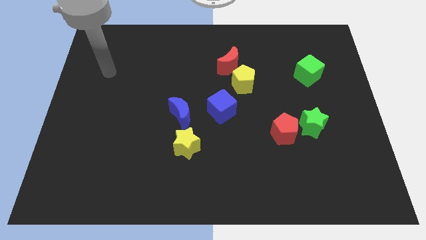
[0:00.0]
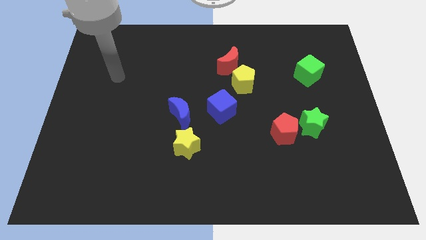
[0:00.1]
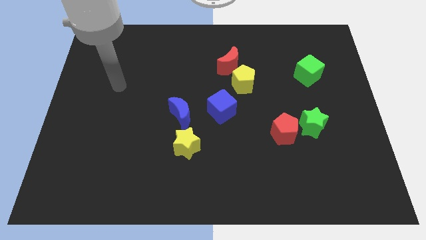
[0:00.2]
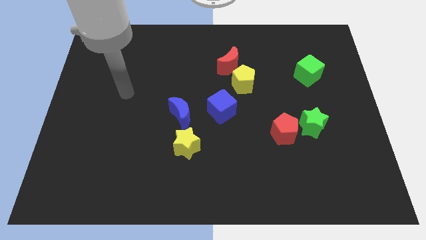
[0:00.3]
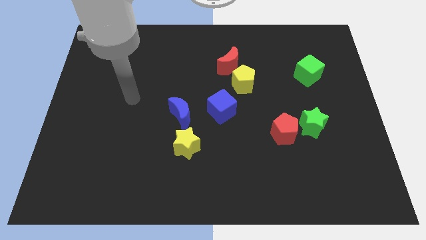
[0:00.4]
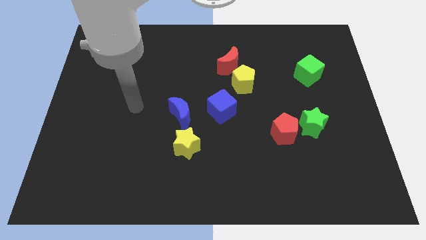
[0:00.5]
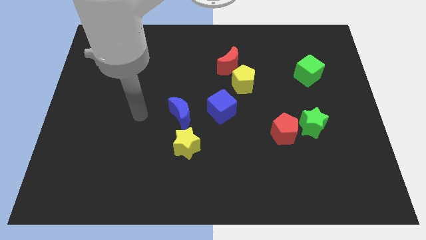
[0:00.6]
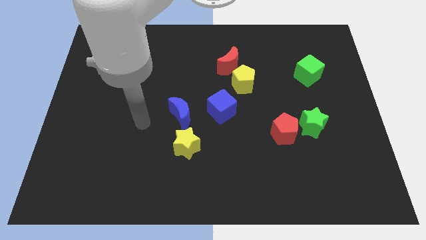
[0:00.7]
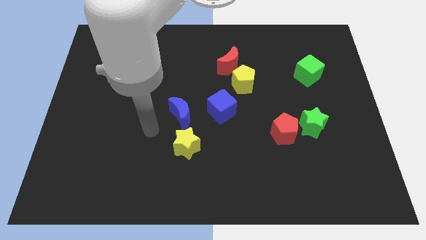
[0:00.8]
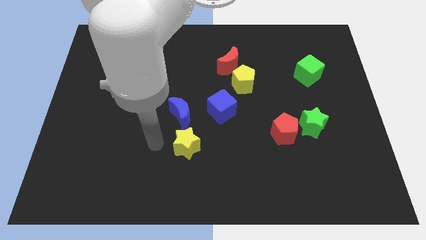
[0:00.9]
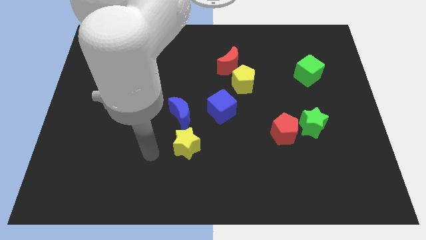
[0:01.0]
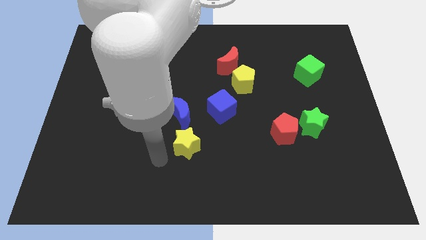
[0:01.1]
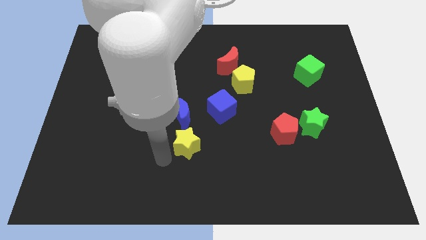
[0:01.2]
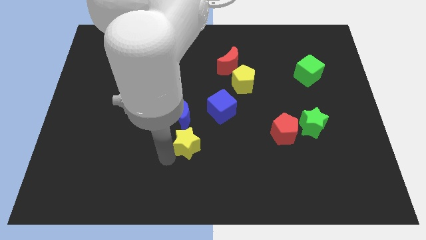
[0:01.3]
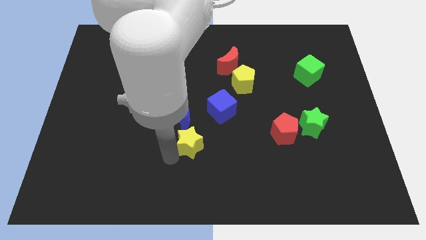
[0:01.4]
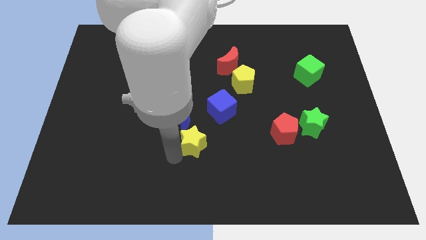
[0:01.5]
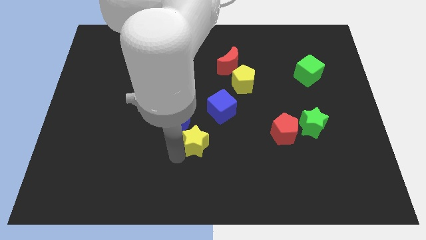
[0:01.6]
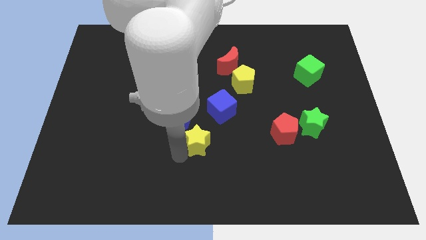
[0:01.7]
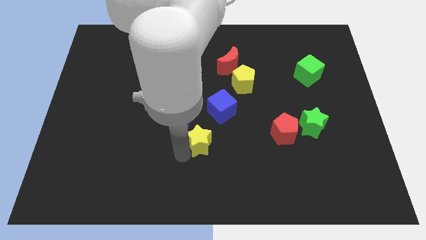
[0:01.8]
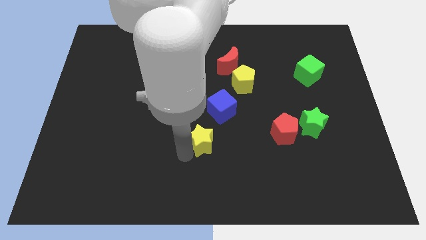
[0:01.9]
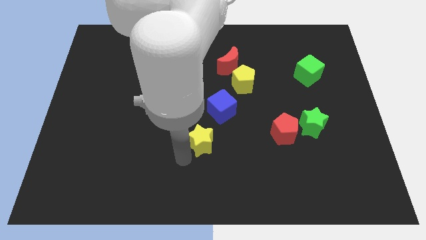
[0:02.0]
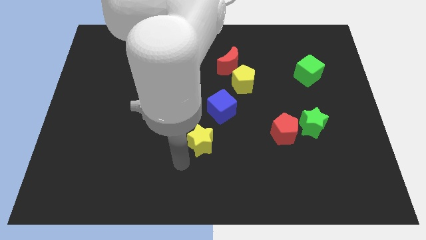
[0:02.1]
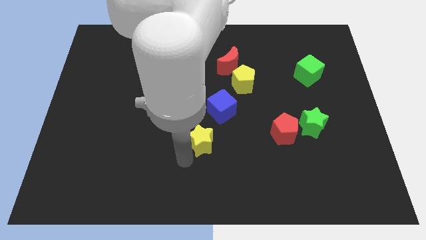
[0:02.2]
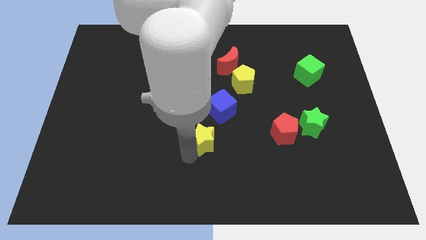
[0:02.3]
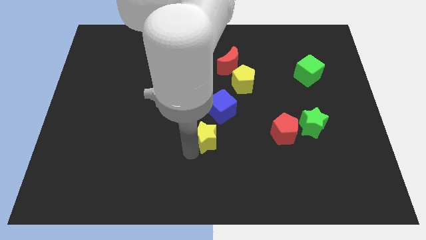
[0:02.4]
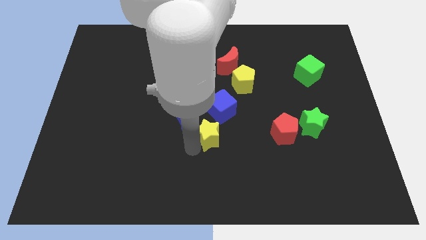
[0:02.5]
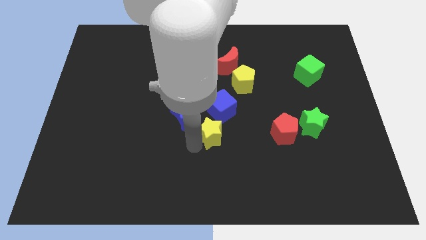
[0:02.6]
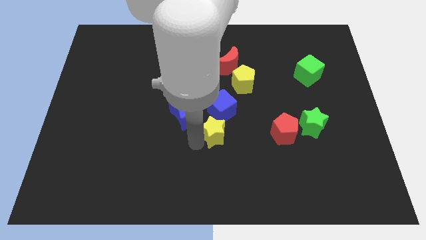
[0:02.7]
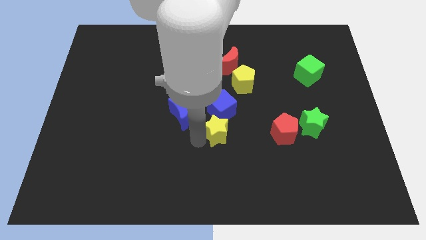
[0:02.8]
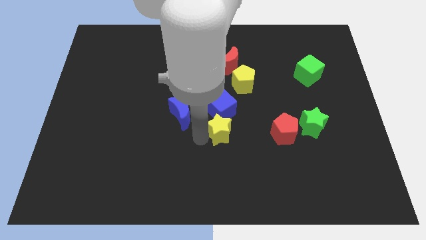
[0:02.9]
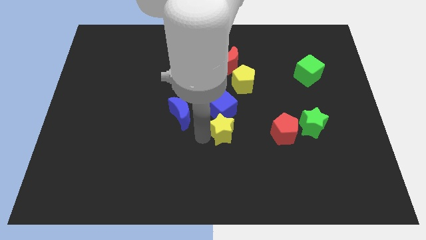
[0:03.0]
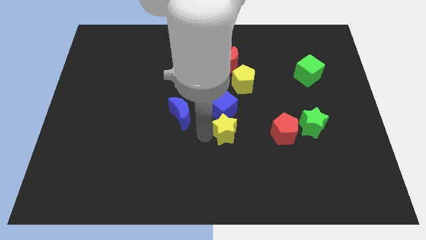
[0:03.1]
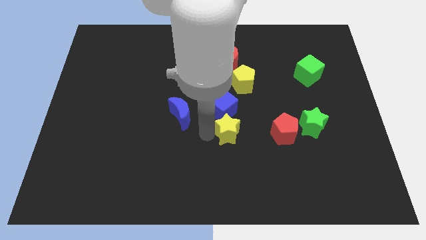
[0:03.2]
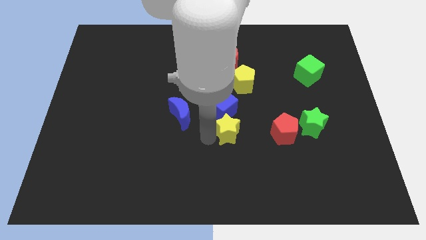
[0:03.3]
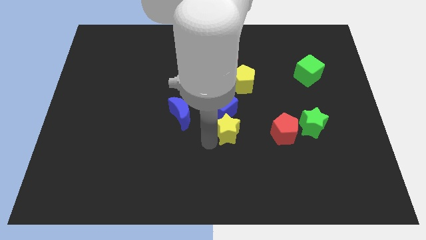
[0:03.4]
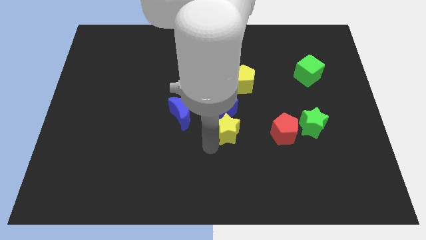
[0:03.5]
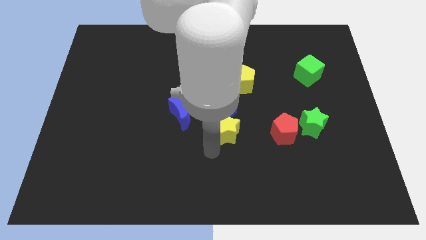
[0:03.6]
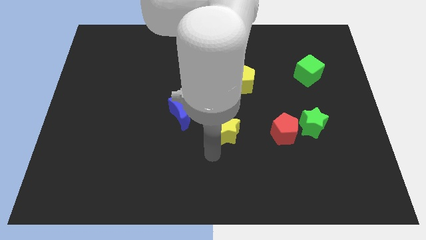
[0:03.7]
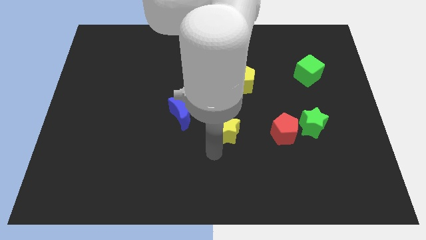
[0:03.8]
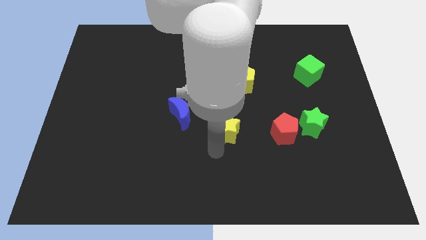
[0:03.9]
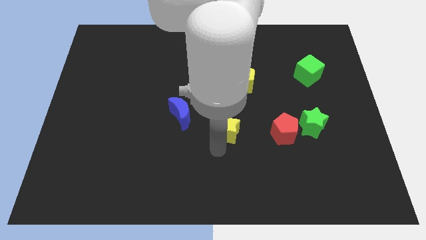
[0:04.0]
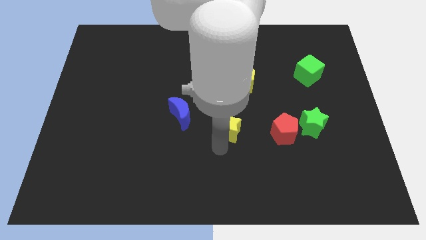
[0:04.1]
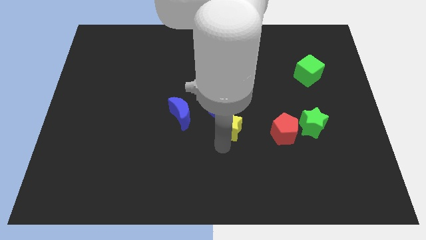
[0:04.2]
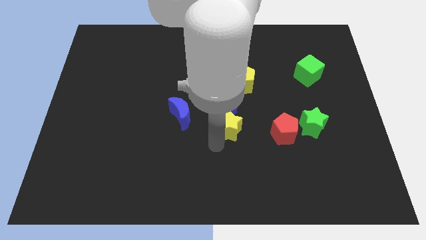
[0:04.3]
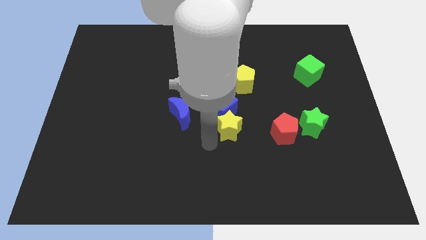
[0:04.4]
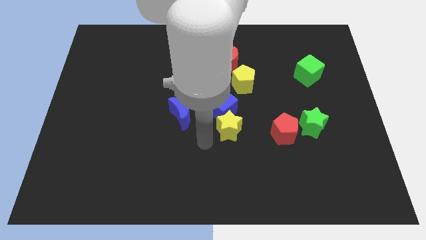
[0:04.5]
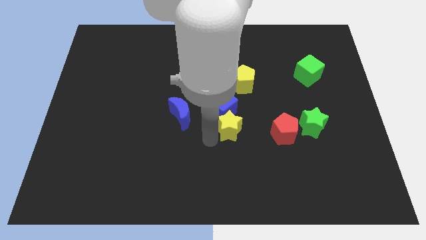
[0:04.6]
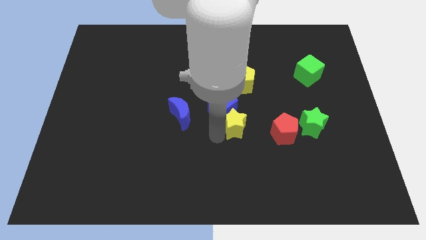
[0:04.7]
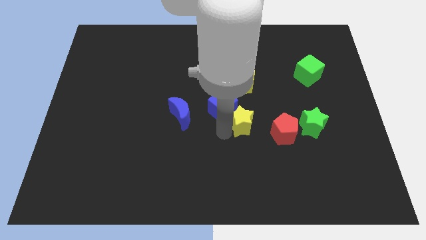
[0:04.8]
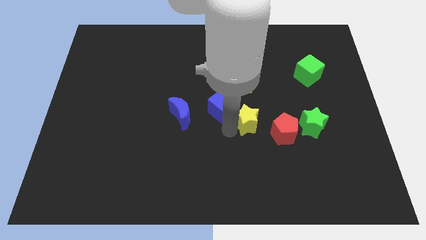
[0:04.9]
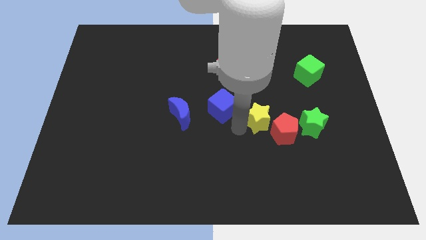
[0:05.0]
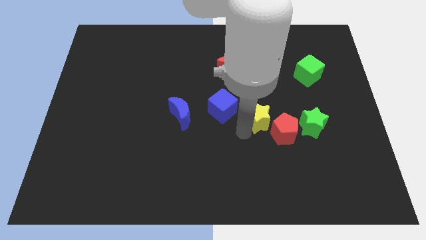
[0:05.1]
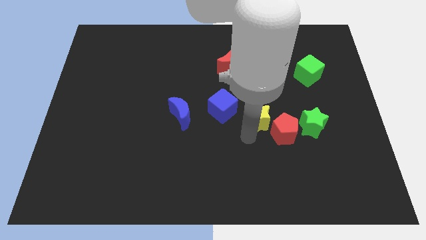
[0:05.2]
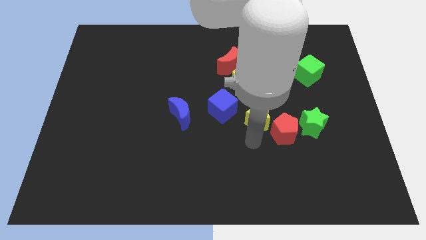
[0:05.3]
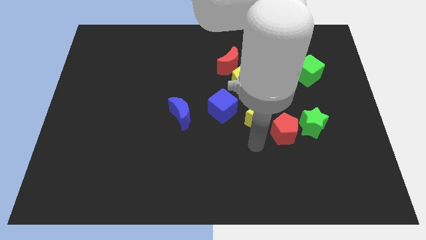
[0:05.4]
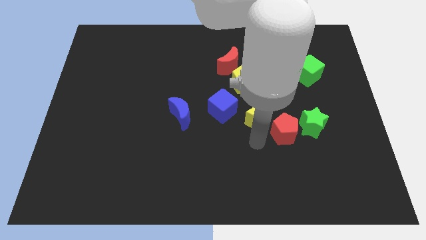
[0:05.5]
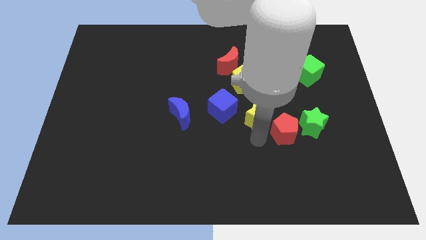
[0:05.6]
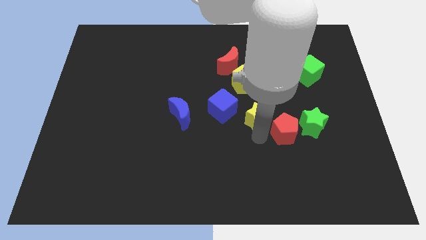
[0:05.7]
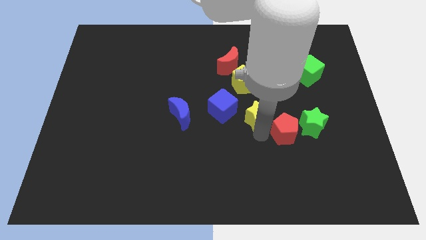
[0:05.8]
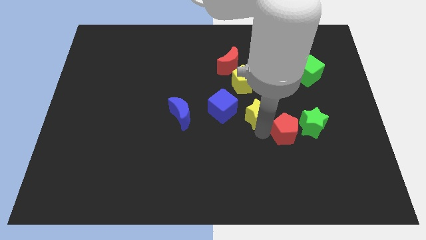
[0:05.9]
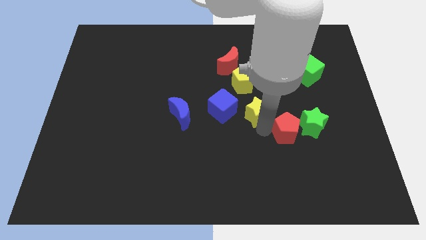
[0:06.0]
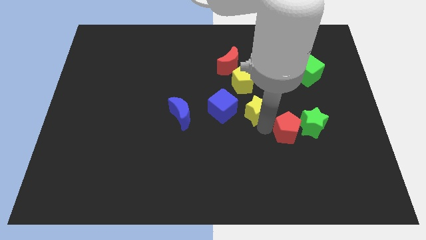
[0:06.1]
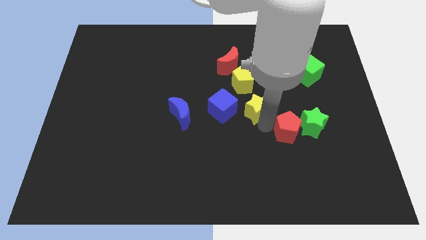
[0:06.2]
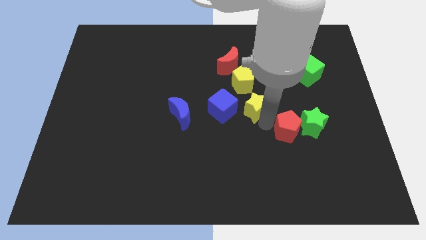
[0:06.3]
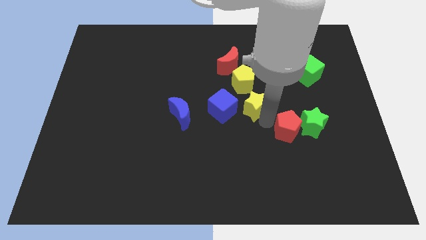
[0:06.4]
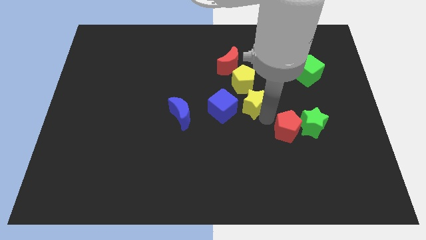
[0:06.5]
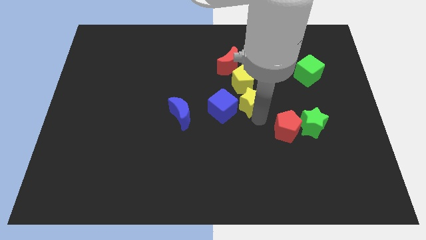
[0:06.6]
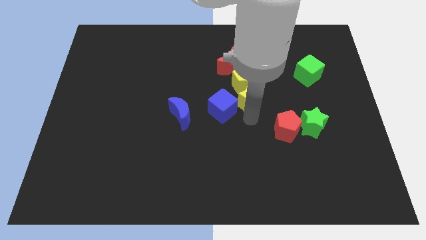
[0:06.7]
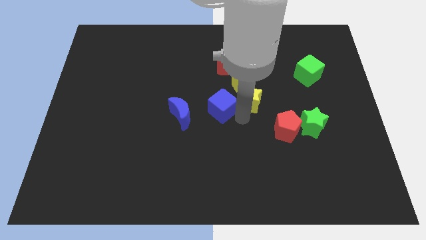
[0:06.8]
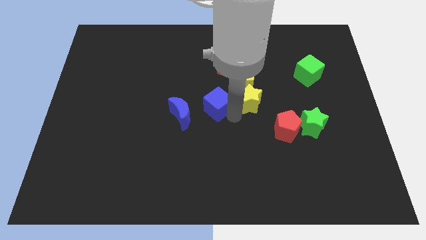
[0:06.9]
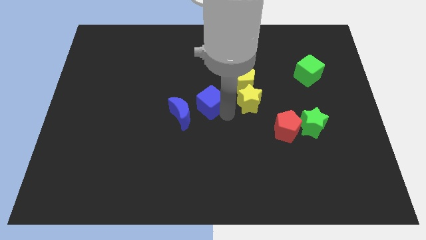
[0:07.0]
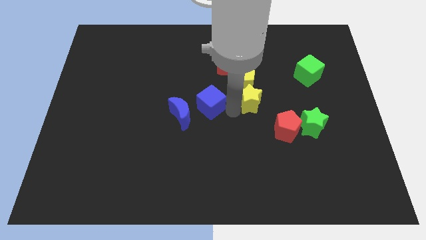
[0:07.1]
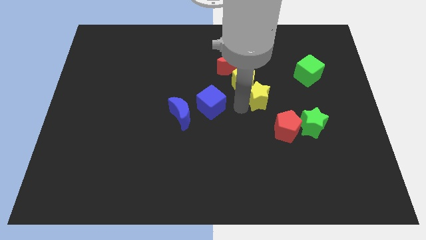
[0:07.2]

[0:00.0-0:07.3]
slide the yellow star diagonally upwards and to the right

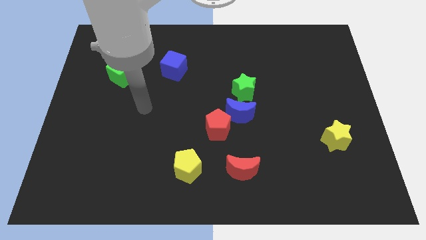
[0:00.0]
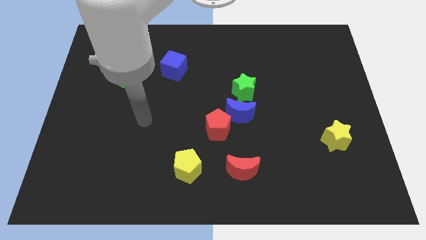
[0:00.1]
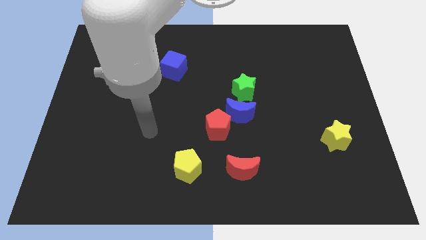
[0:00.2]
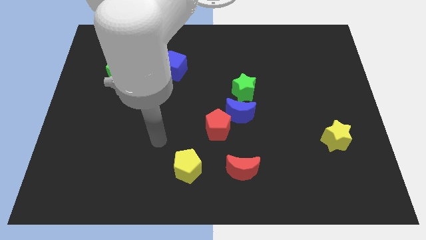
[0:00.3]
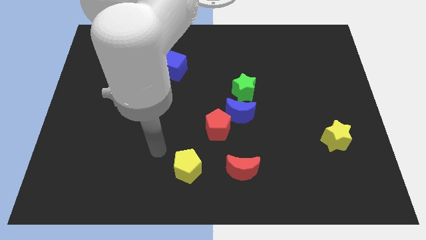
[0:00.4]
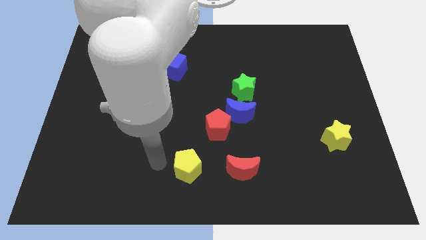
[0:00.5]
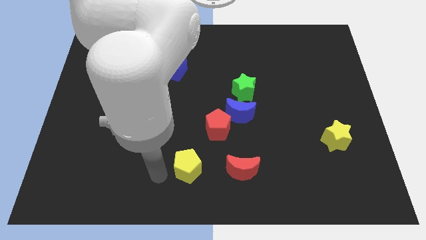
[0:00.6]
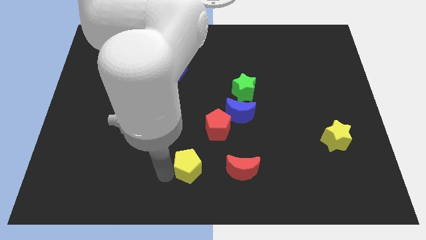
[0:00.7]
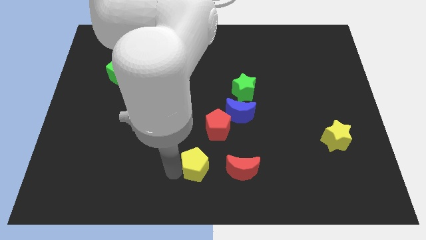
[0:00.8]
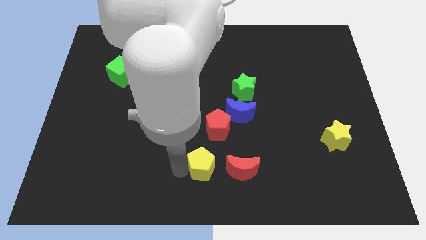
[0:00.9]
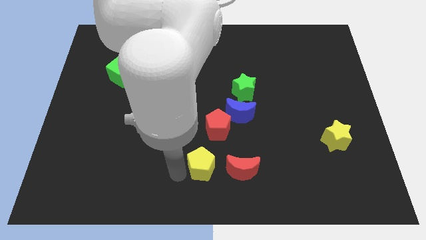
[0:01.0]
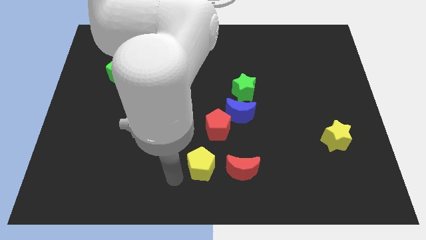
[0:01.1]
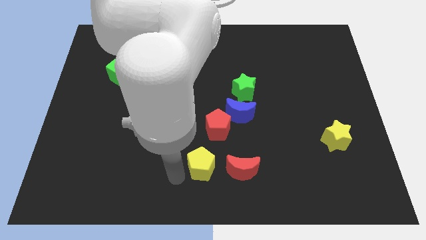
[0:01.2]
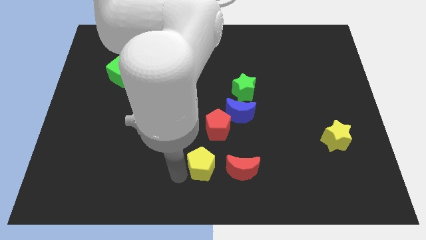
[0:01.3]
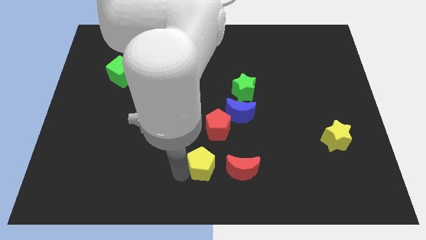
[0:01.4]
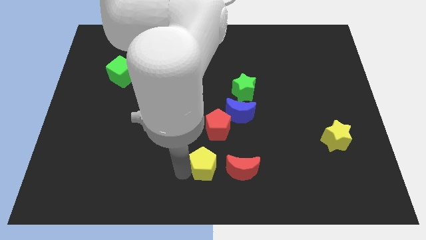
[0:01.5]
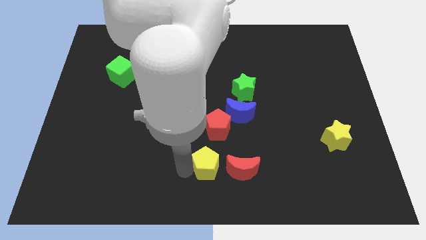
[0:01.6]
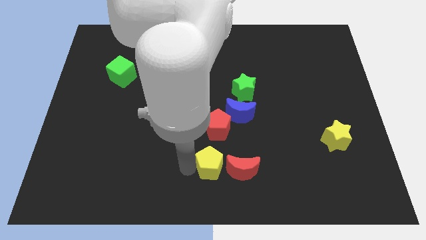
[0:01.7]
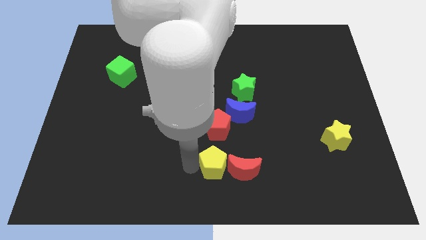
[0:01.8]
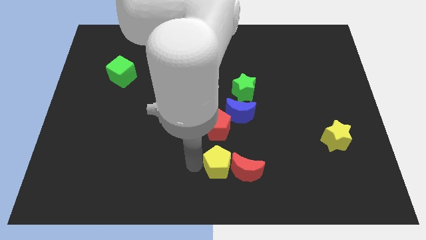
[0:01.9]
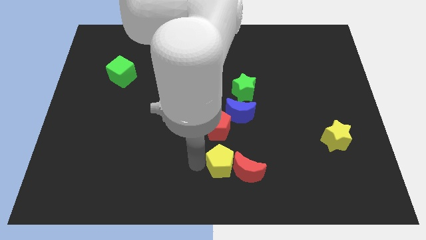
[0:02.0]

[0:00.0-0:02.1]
slightly move the yellow pentagon to the right
